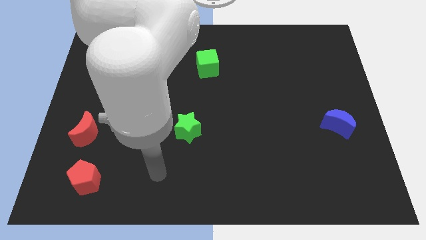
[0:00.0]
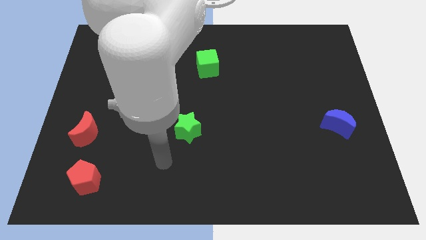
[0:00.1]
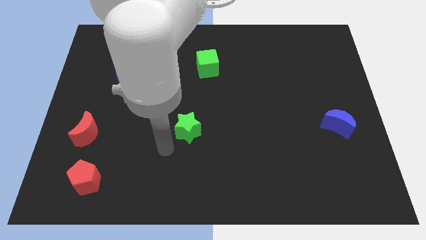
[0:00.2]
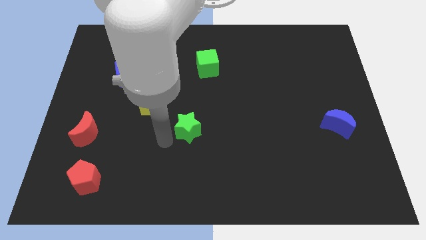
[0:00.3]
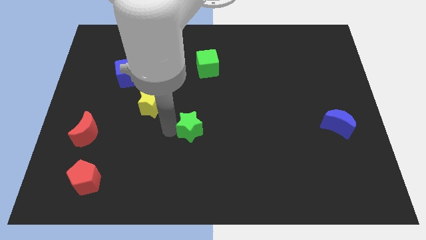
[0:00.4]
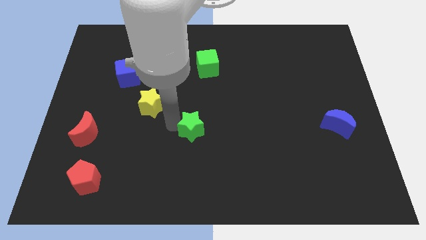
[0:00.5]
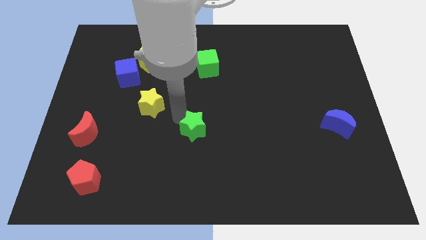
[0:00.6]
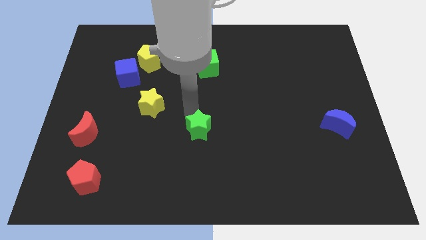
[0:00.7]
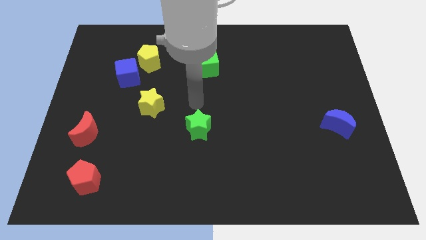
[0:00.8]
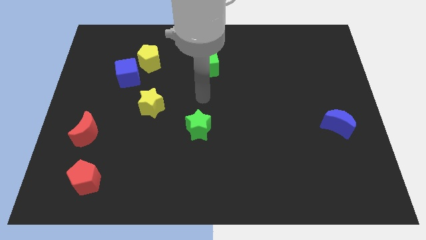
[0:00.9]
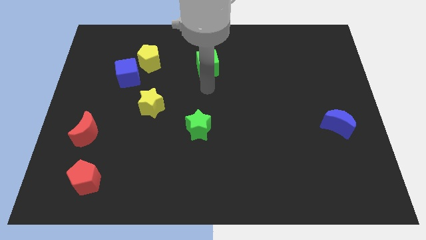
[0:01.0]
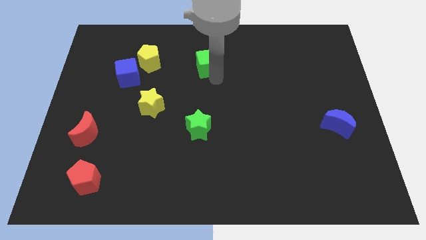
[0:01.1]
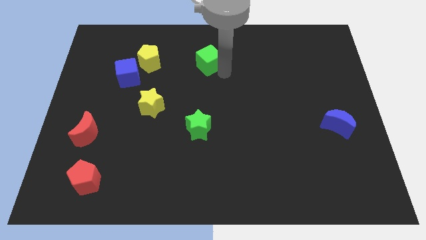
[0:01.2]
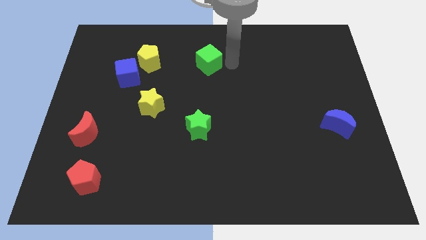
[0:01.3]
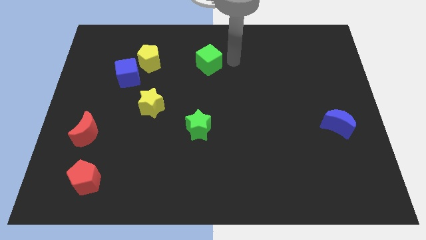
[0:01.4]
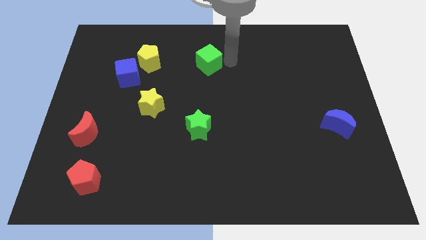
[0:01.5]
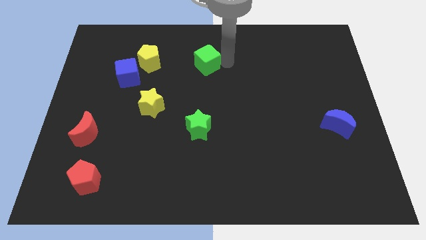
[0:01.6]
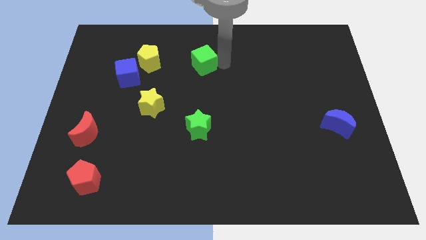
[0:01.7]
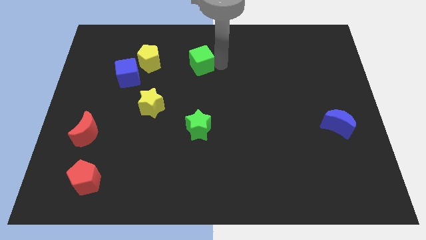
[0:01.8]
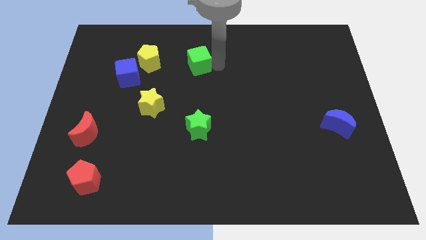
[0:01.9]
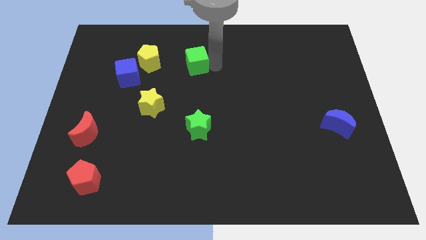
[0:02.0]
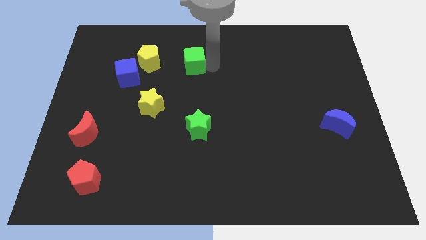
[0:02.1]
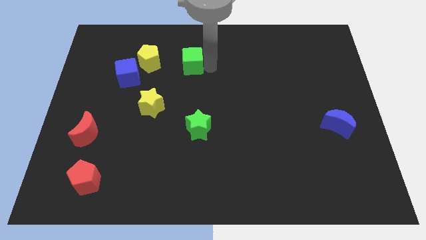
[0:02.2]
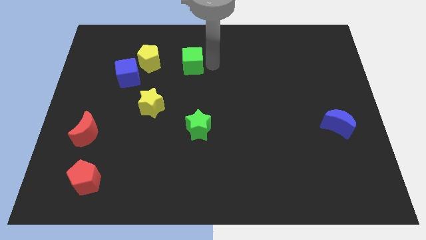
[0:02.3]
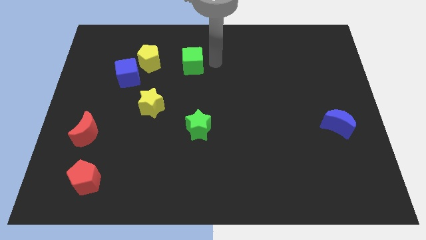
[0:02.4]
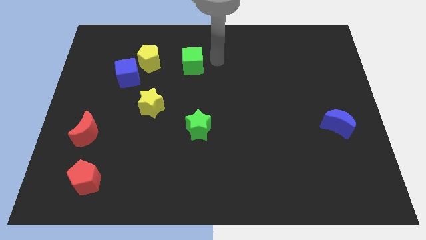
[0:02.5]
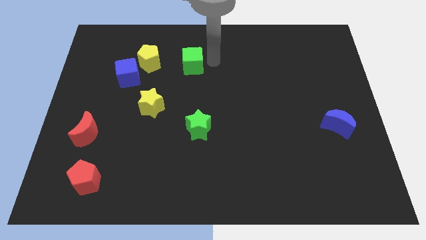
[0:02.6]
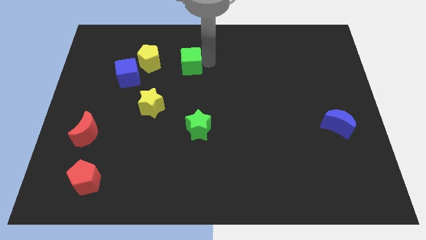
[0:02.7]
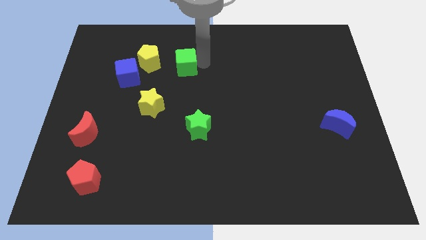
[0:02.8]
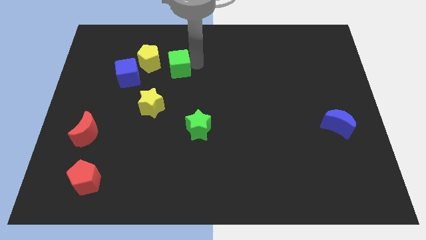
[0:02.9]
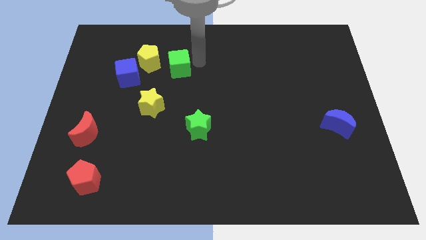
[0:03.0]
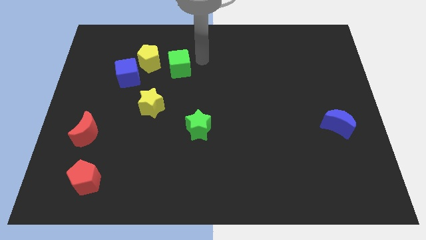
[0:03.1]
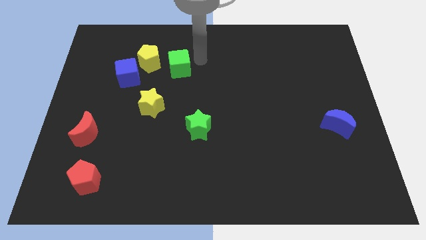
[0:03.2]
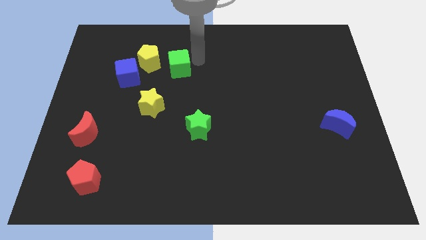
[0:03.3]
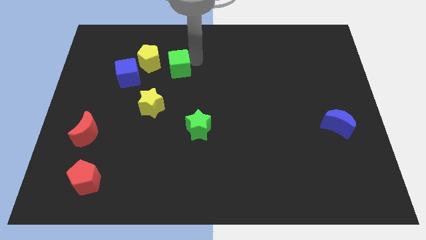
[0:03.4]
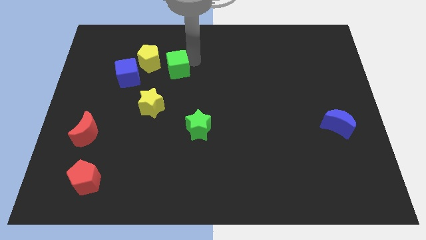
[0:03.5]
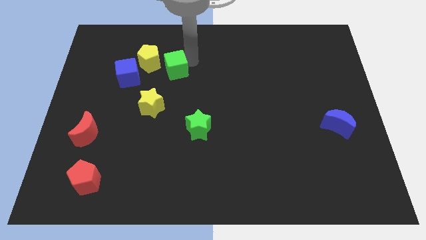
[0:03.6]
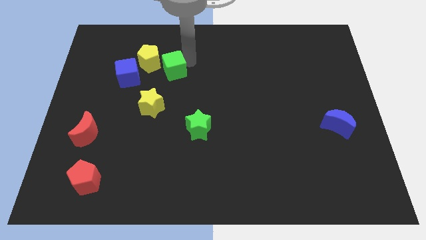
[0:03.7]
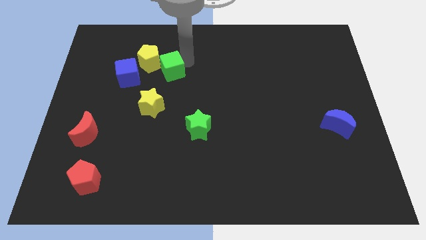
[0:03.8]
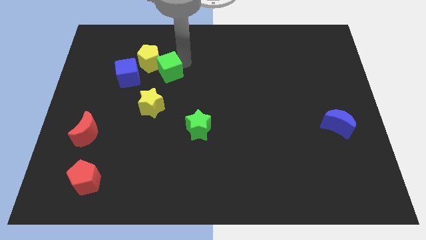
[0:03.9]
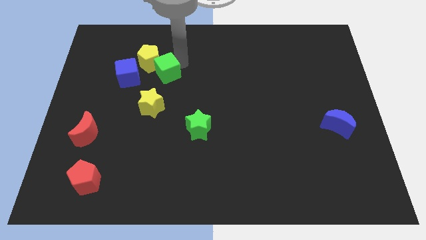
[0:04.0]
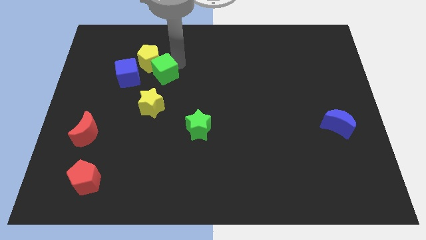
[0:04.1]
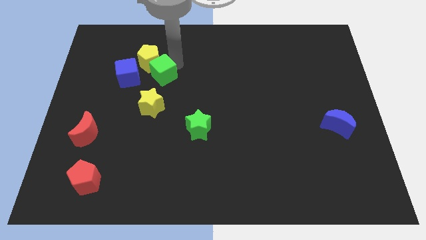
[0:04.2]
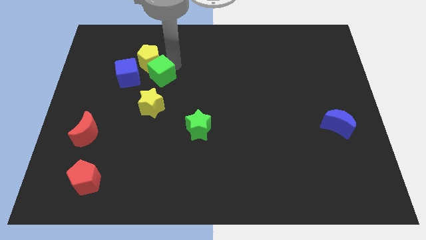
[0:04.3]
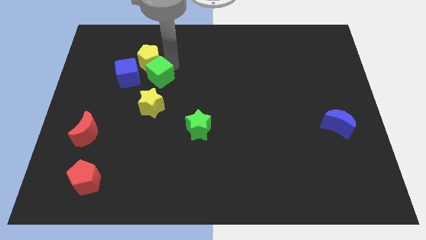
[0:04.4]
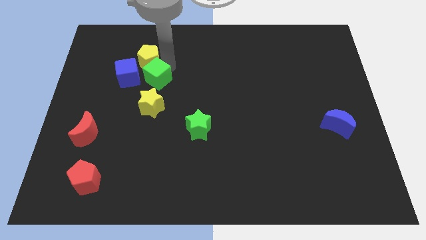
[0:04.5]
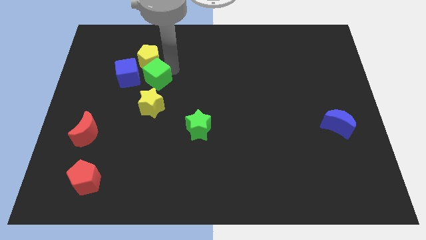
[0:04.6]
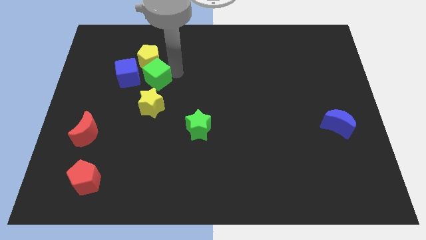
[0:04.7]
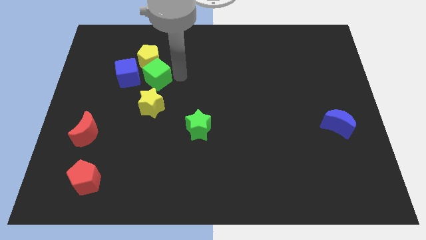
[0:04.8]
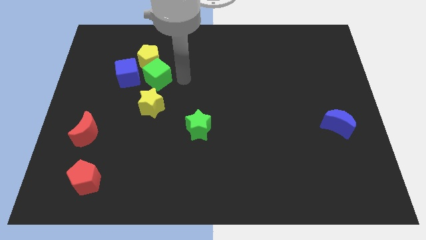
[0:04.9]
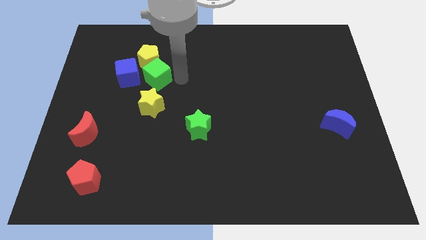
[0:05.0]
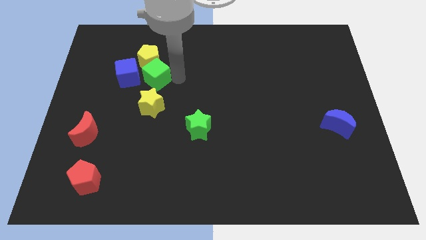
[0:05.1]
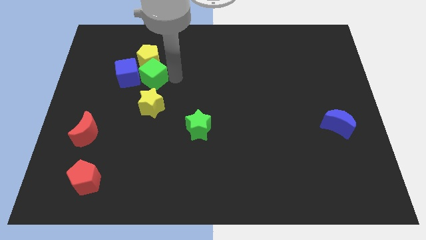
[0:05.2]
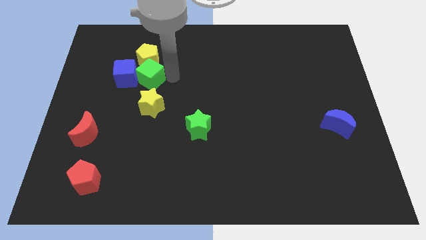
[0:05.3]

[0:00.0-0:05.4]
push the green cube towards the blue cube

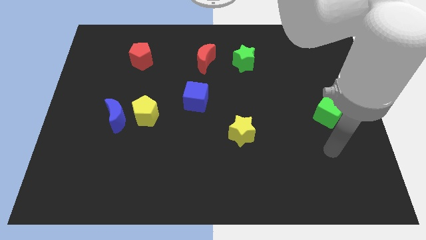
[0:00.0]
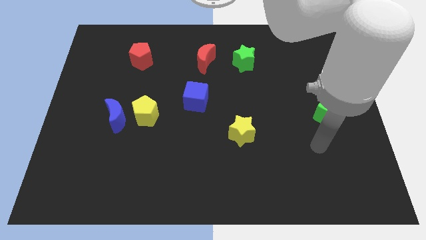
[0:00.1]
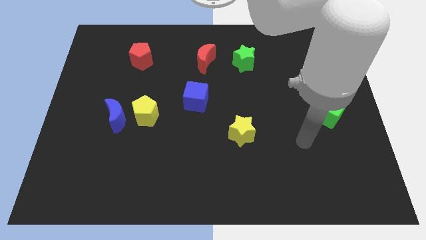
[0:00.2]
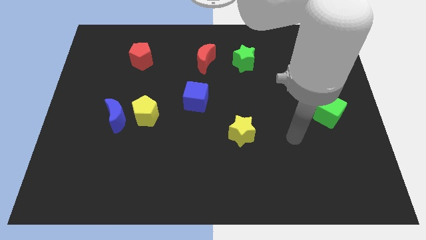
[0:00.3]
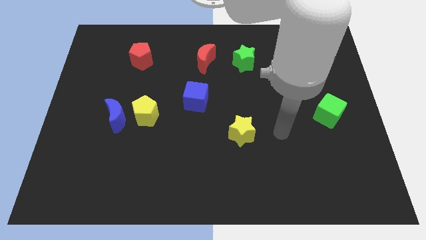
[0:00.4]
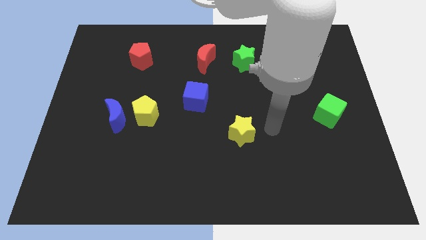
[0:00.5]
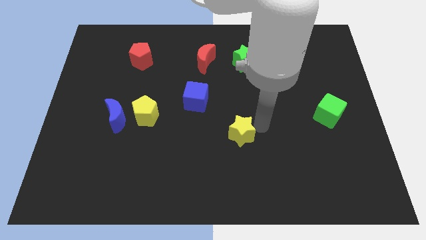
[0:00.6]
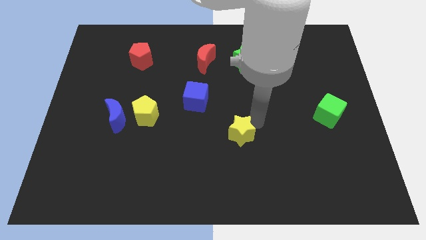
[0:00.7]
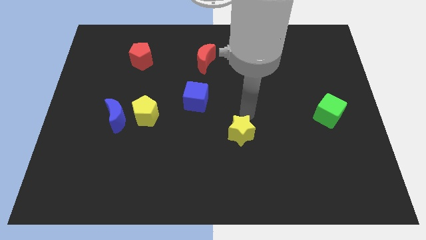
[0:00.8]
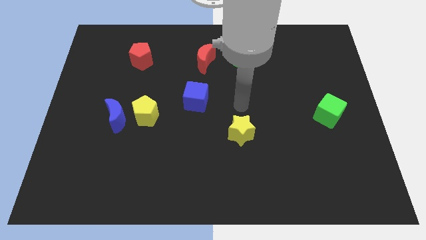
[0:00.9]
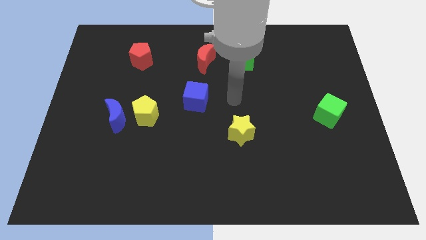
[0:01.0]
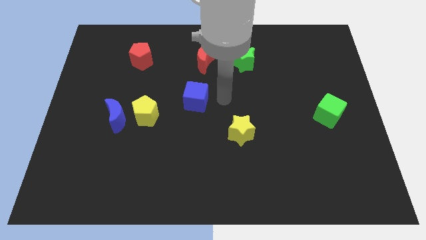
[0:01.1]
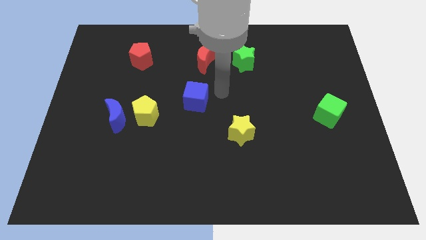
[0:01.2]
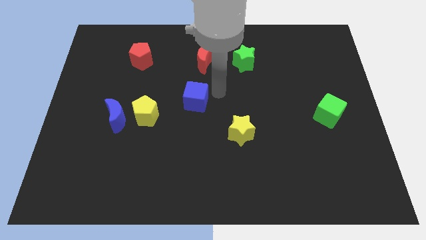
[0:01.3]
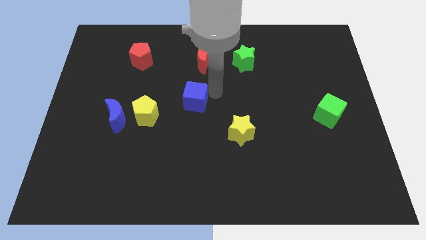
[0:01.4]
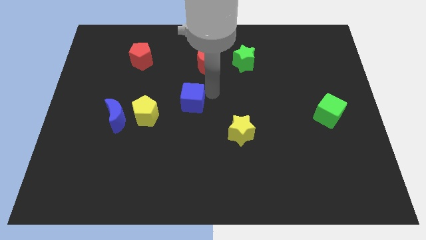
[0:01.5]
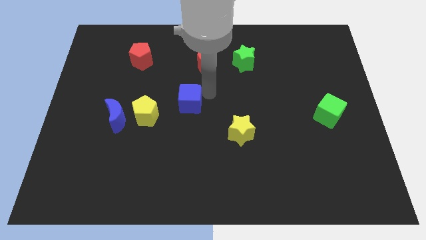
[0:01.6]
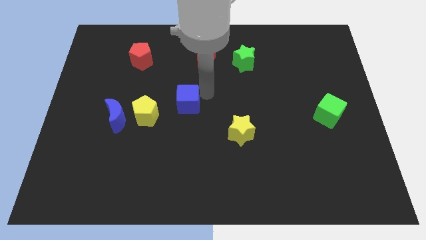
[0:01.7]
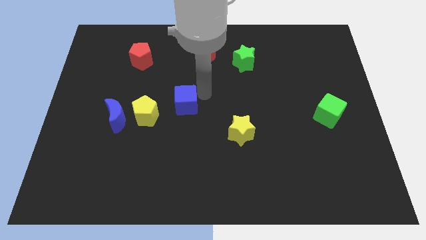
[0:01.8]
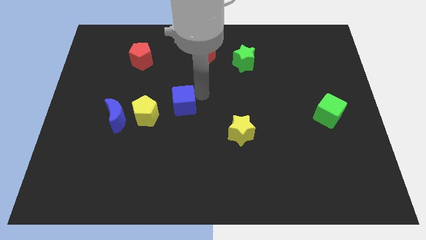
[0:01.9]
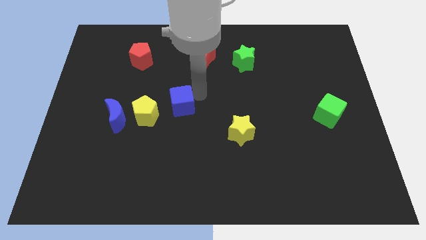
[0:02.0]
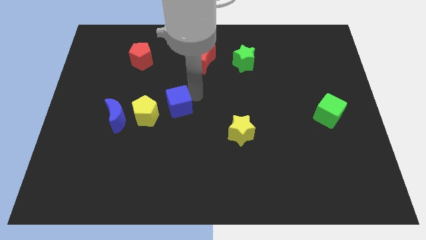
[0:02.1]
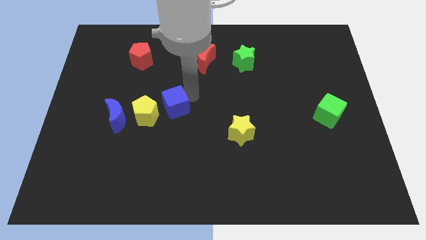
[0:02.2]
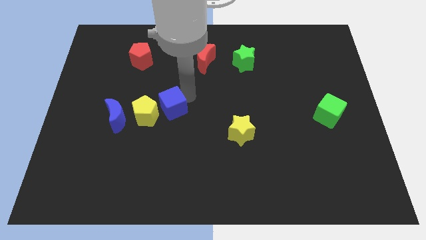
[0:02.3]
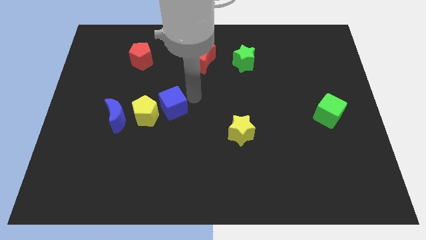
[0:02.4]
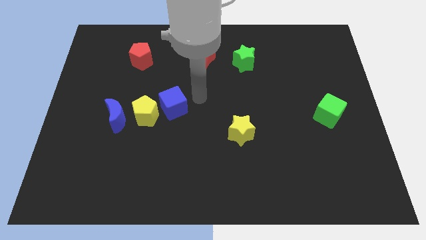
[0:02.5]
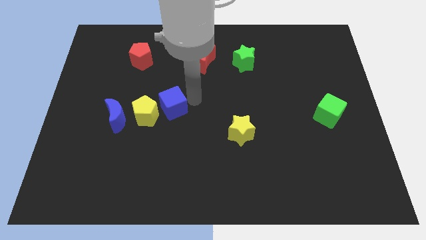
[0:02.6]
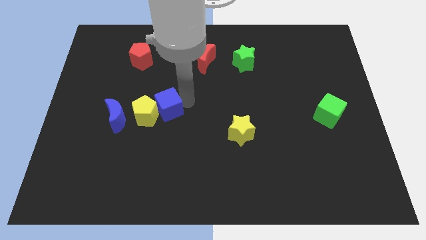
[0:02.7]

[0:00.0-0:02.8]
slide the blue cube next to the yellow pentagon

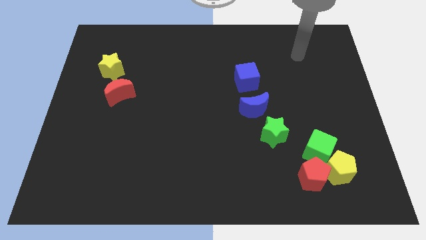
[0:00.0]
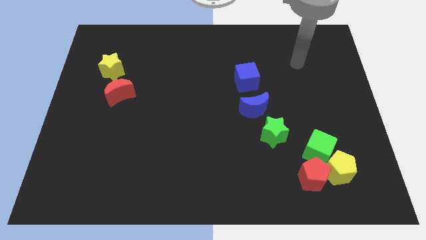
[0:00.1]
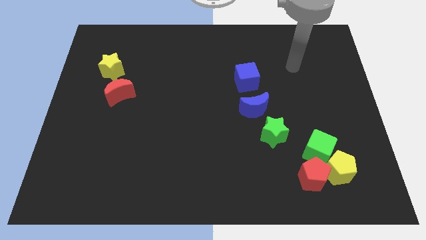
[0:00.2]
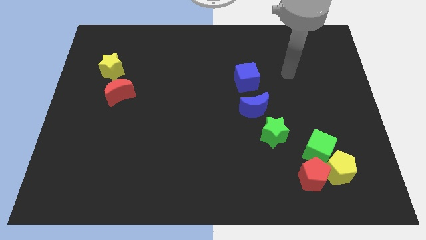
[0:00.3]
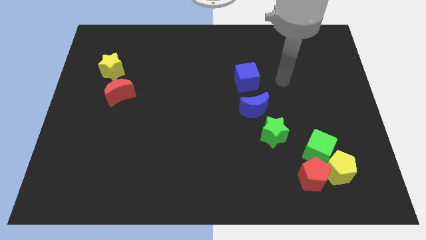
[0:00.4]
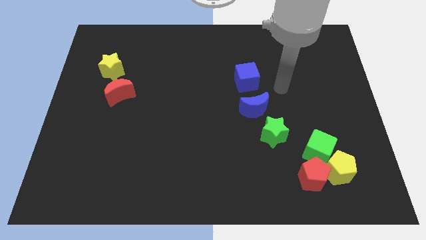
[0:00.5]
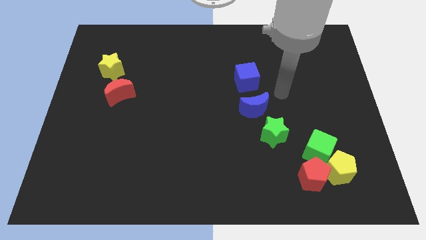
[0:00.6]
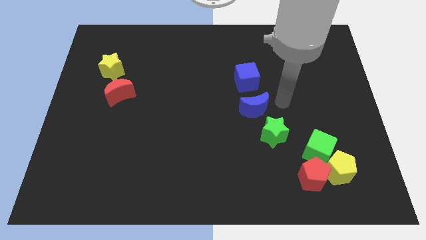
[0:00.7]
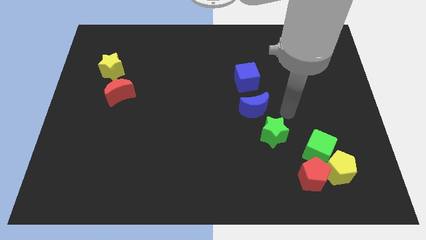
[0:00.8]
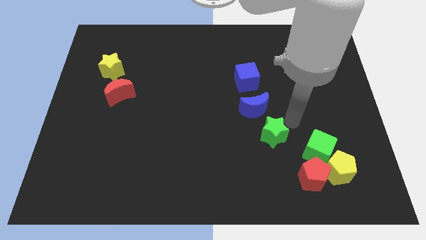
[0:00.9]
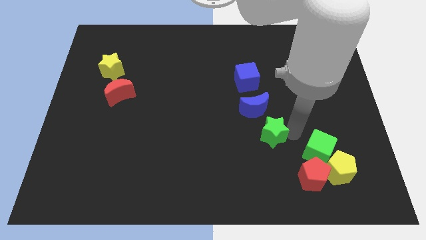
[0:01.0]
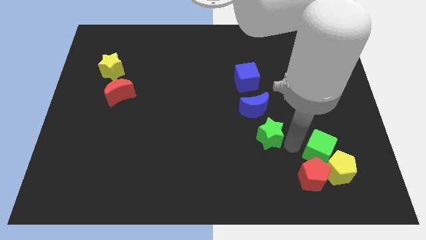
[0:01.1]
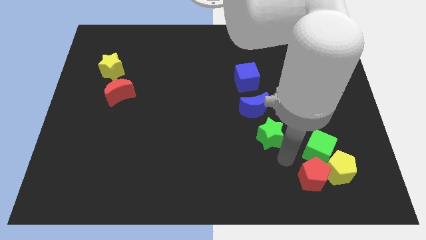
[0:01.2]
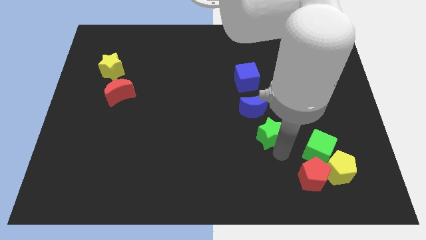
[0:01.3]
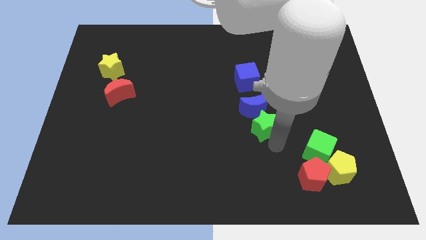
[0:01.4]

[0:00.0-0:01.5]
push the green star towards the blue moon
